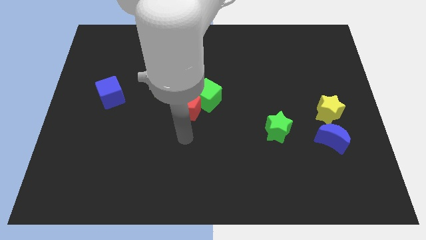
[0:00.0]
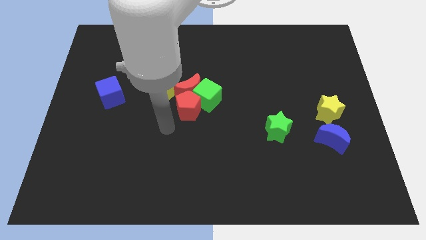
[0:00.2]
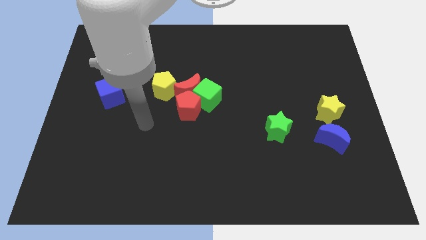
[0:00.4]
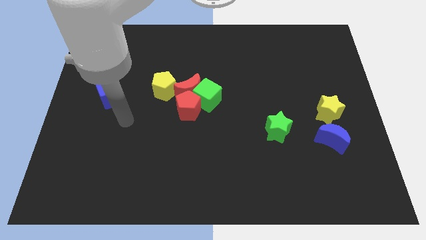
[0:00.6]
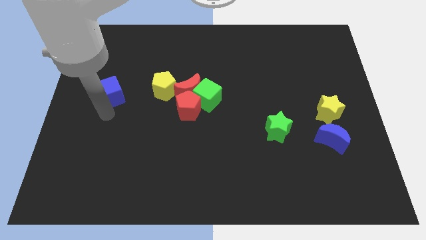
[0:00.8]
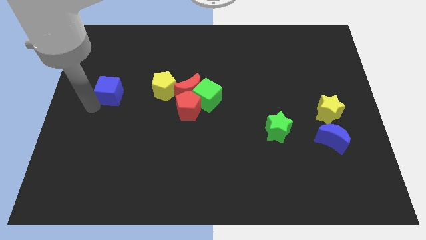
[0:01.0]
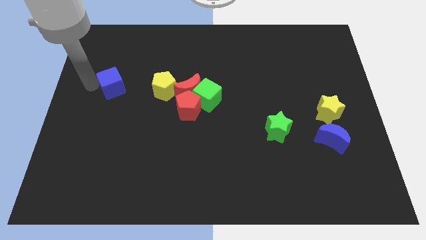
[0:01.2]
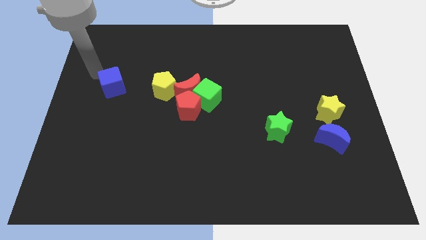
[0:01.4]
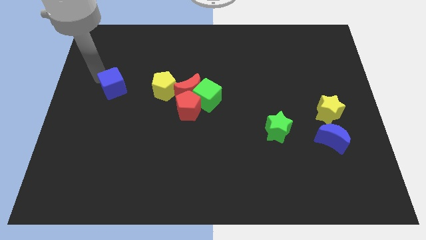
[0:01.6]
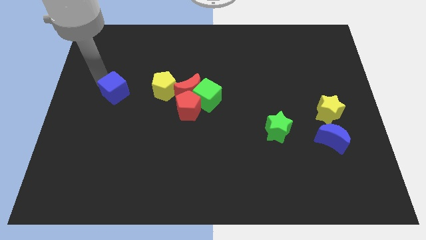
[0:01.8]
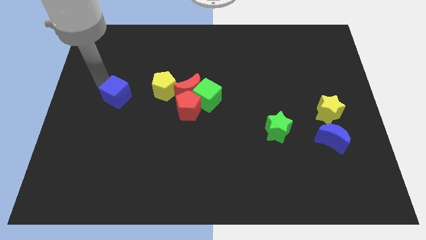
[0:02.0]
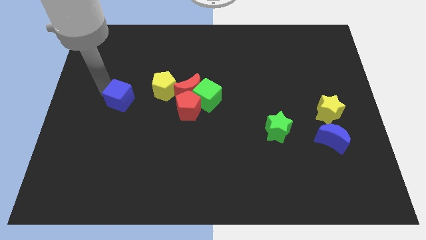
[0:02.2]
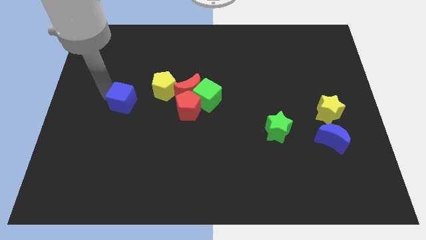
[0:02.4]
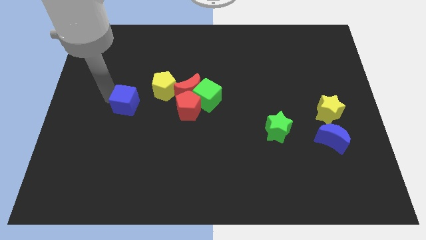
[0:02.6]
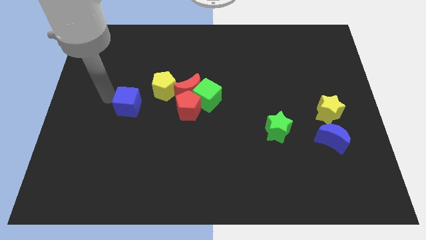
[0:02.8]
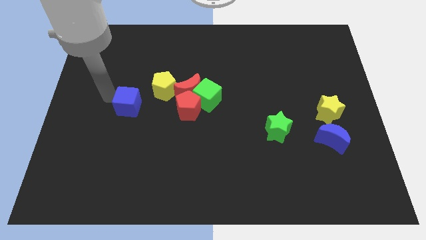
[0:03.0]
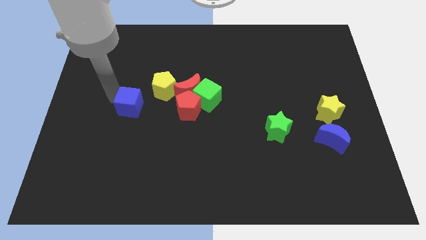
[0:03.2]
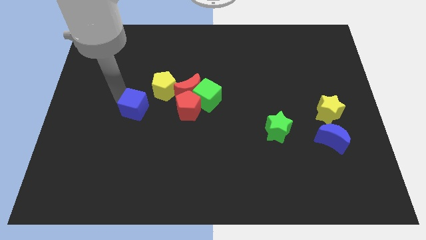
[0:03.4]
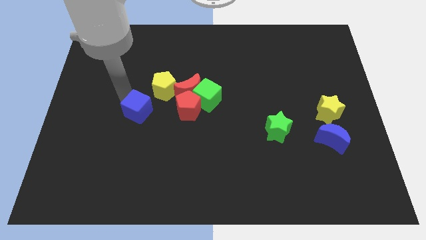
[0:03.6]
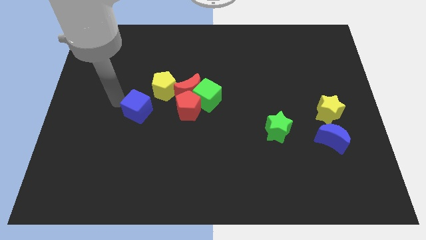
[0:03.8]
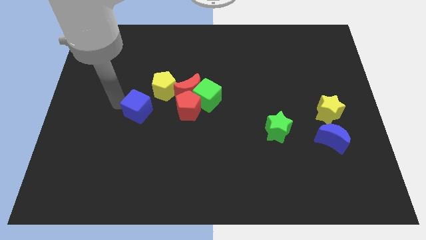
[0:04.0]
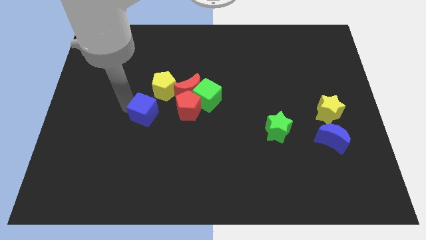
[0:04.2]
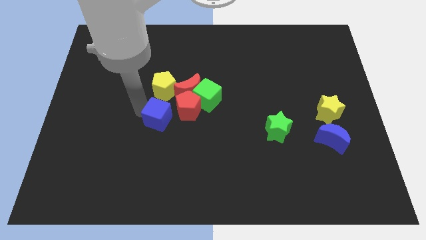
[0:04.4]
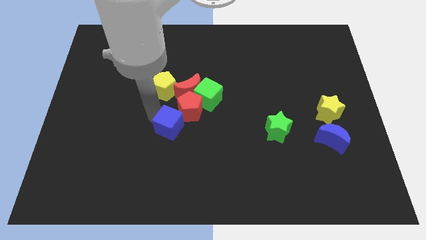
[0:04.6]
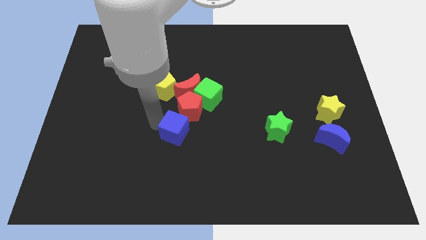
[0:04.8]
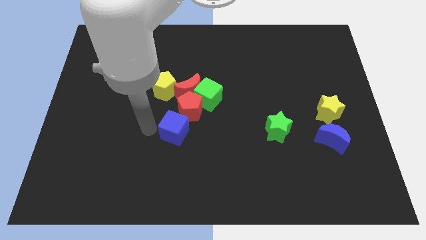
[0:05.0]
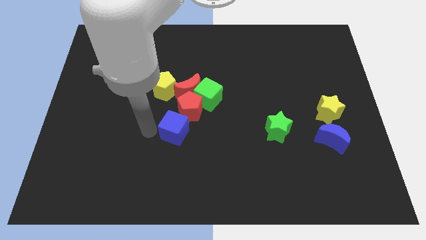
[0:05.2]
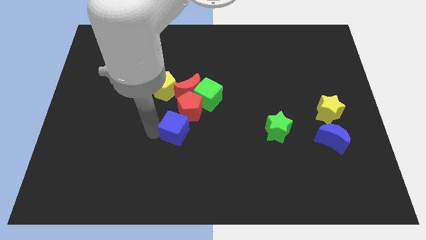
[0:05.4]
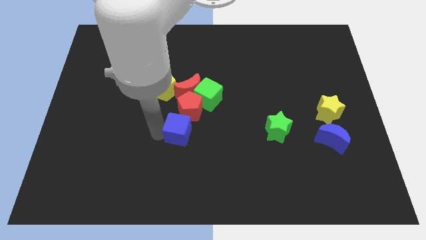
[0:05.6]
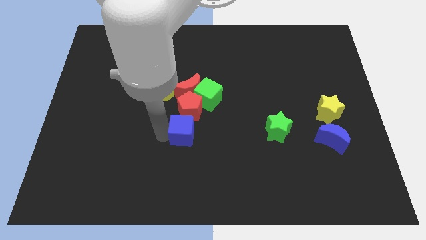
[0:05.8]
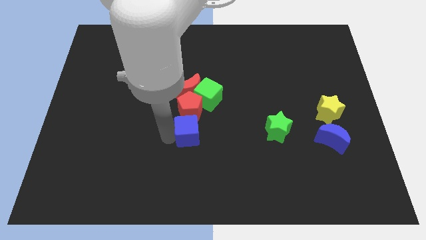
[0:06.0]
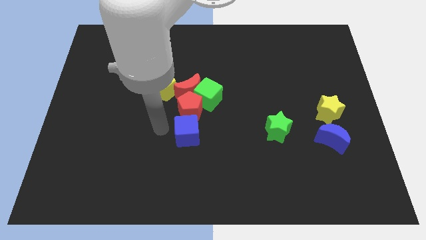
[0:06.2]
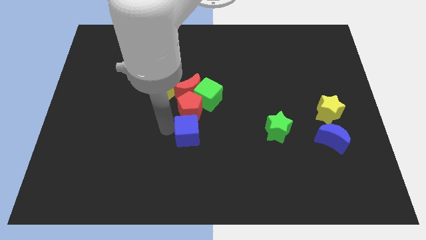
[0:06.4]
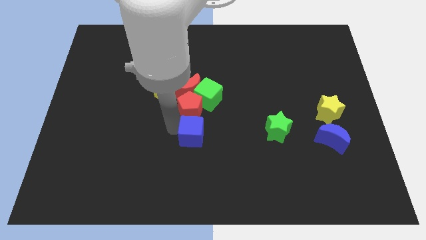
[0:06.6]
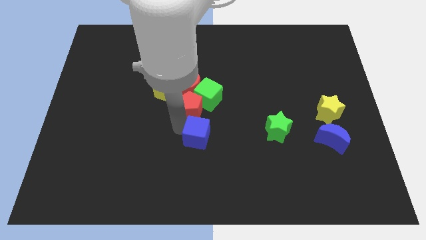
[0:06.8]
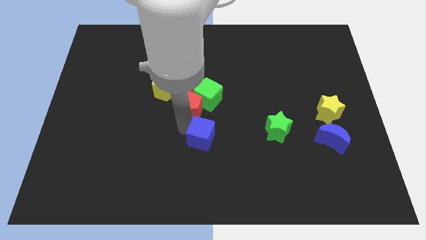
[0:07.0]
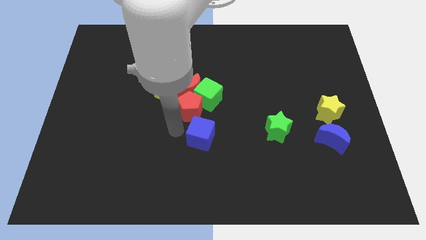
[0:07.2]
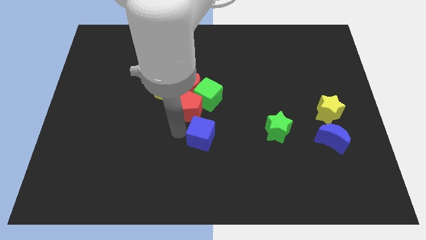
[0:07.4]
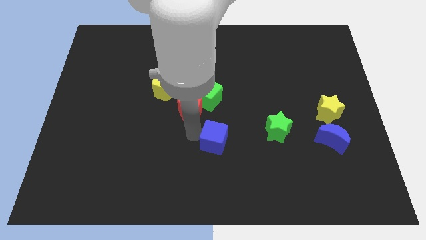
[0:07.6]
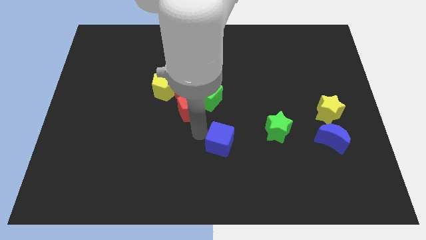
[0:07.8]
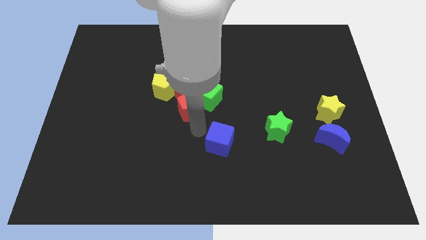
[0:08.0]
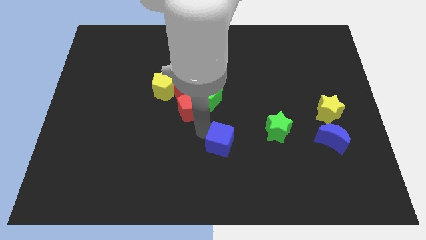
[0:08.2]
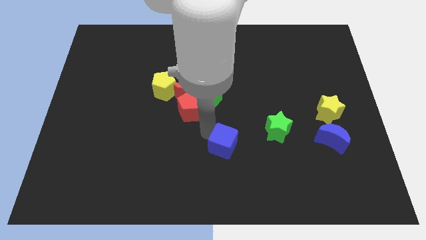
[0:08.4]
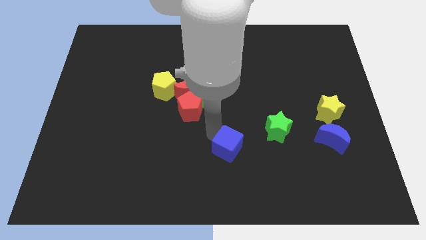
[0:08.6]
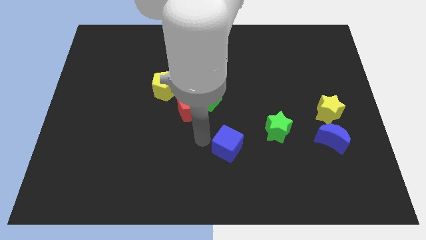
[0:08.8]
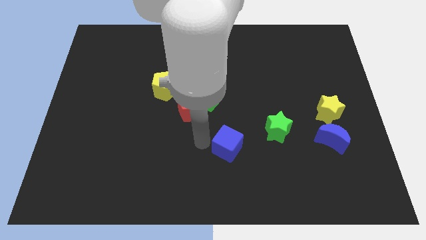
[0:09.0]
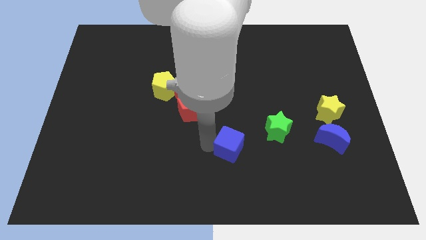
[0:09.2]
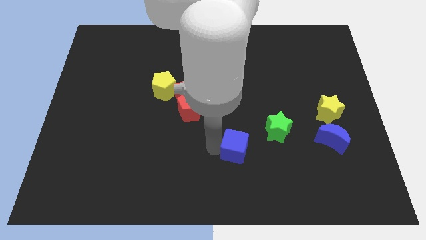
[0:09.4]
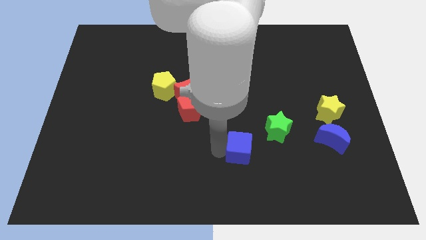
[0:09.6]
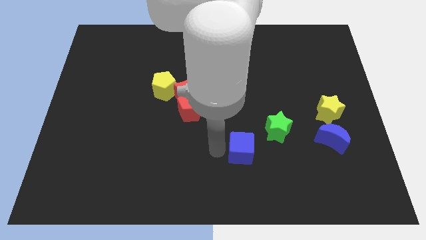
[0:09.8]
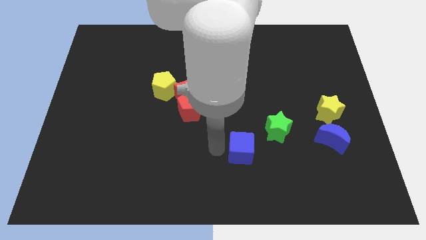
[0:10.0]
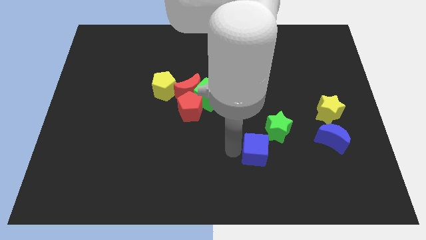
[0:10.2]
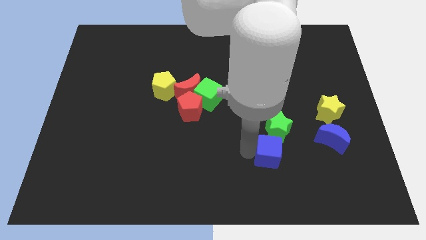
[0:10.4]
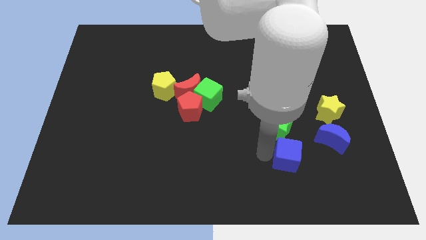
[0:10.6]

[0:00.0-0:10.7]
push the blue cube to the bottom left side of the blue moon

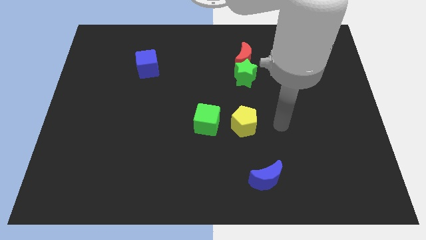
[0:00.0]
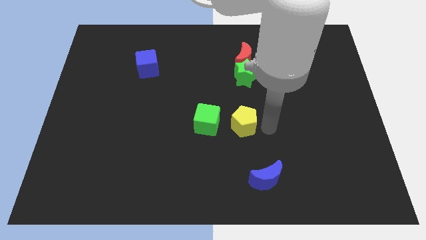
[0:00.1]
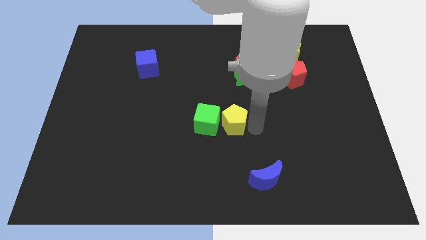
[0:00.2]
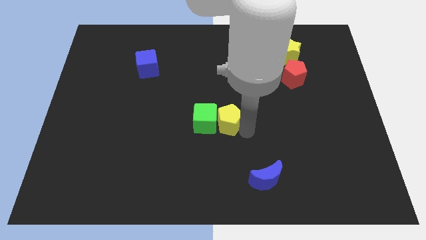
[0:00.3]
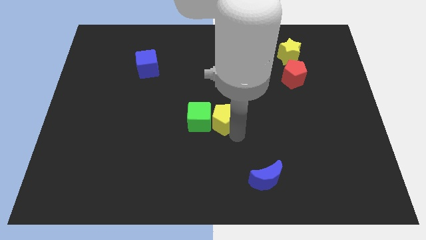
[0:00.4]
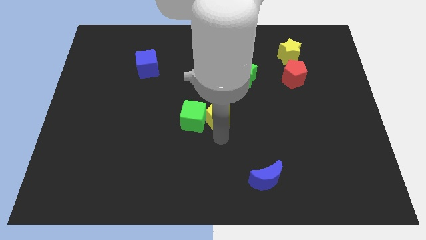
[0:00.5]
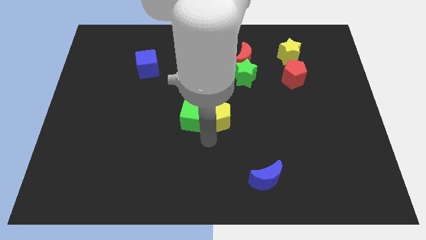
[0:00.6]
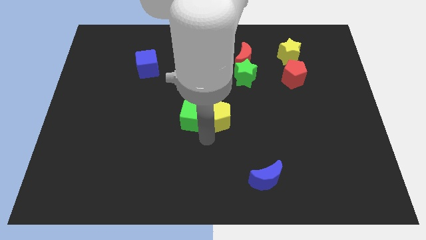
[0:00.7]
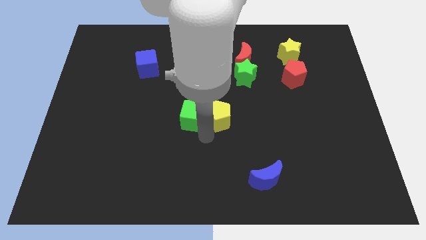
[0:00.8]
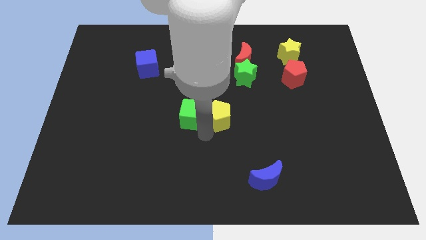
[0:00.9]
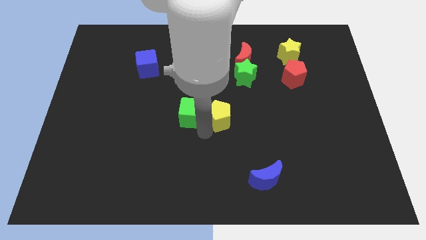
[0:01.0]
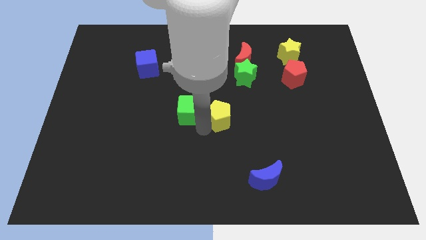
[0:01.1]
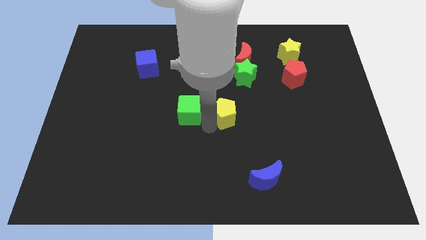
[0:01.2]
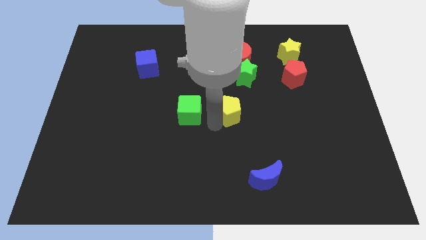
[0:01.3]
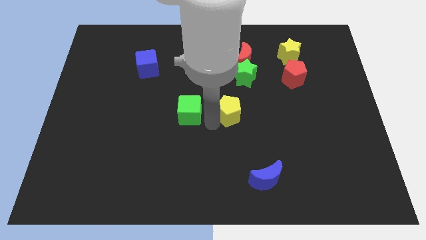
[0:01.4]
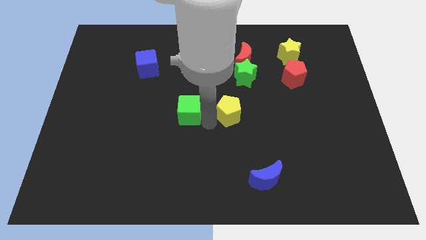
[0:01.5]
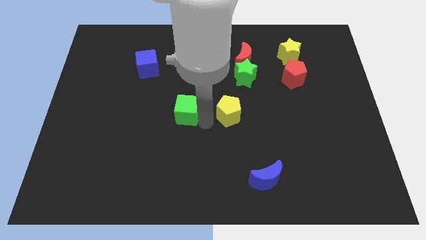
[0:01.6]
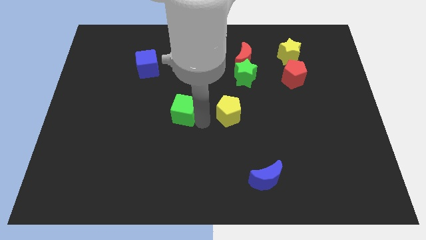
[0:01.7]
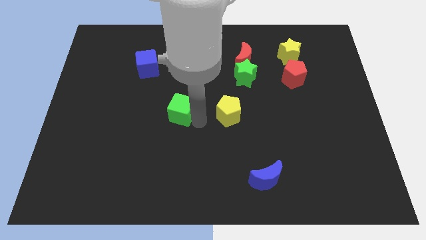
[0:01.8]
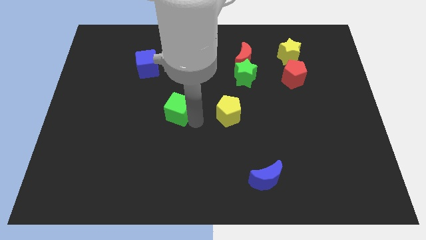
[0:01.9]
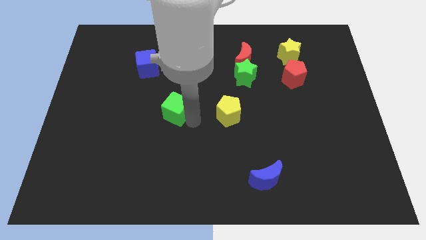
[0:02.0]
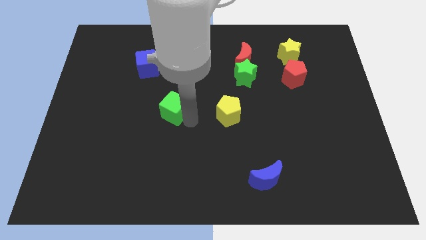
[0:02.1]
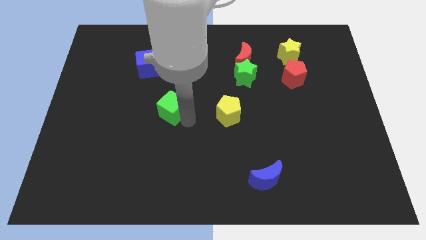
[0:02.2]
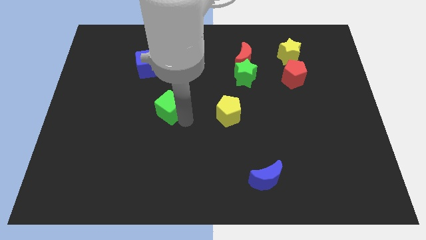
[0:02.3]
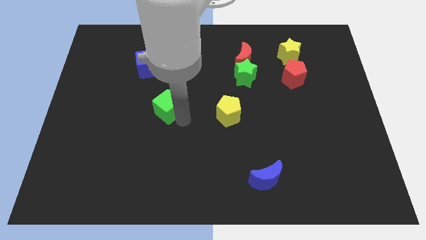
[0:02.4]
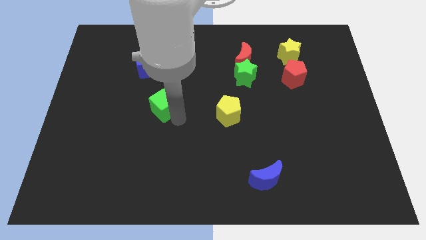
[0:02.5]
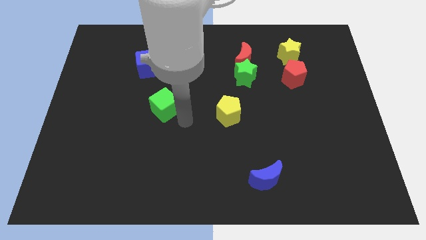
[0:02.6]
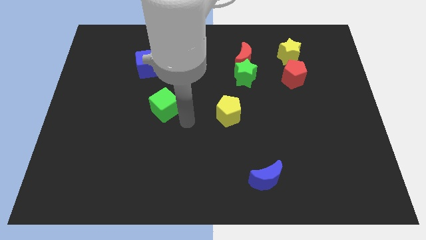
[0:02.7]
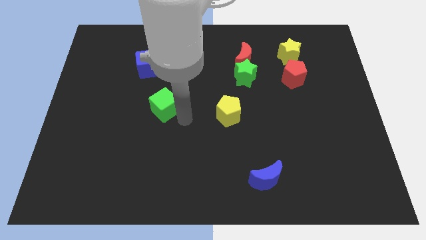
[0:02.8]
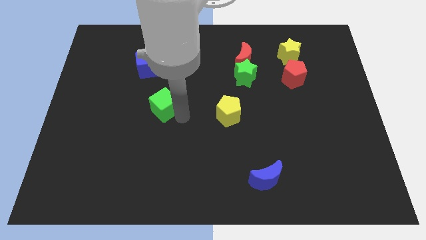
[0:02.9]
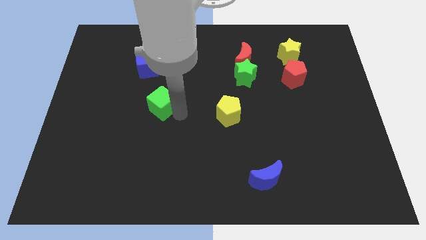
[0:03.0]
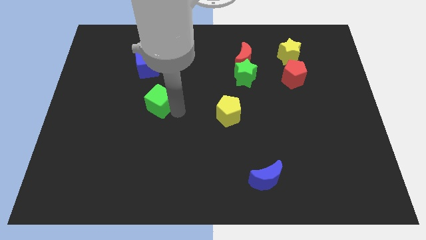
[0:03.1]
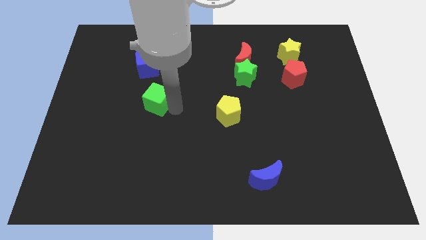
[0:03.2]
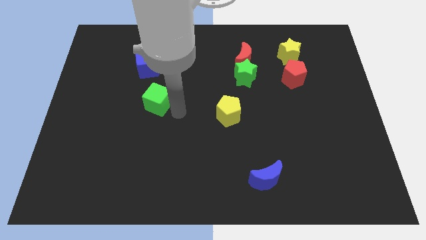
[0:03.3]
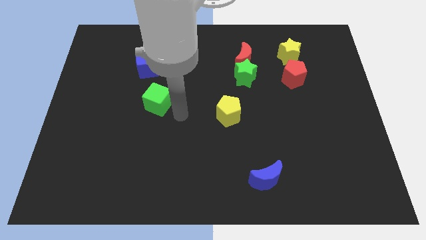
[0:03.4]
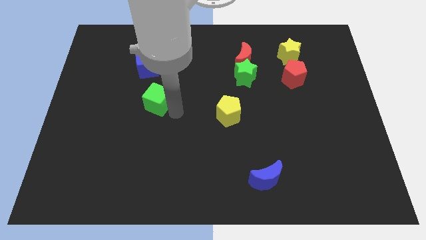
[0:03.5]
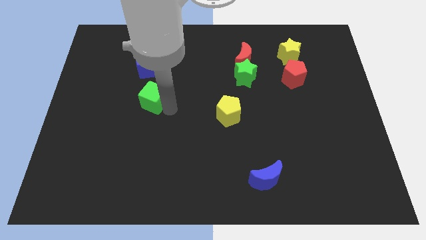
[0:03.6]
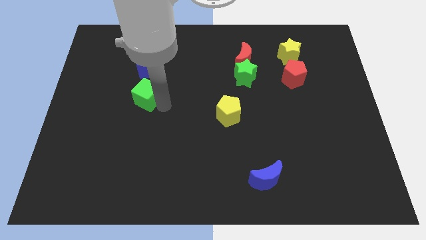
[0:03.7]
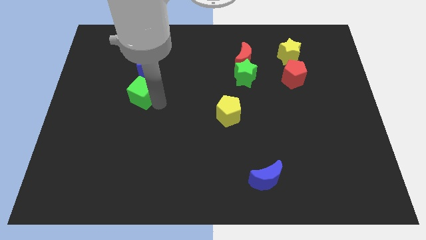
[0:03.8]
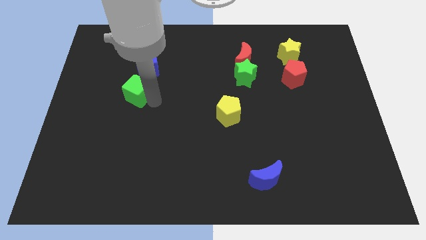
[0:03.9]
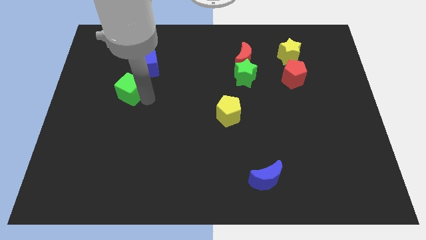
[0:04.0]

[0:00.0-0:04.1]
push the green cube diagonally down and to the left of the blue cube
